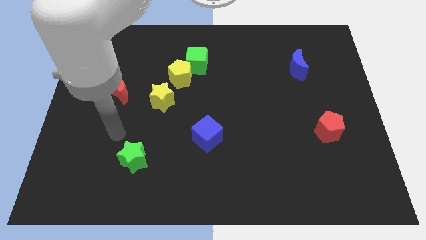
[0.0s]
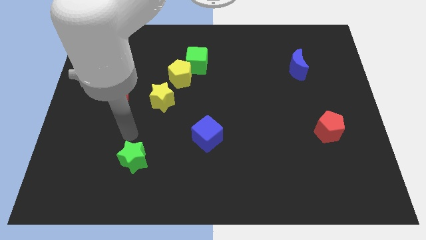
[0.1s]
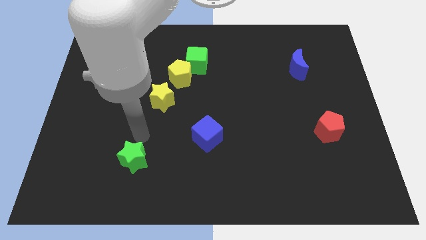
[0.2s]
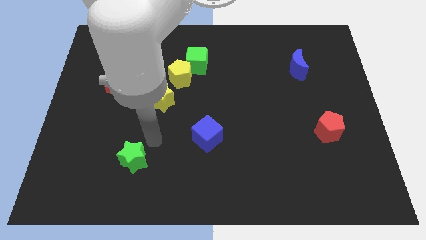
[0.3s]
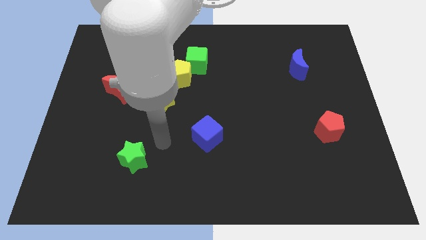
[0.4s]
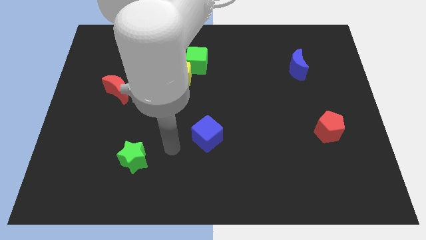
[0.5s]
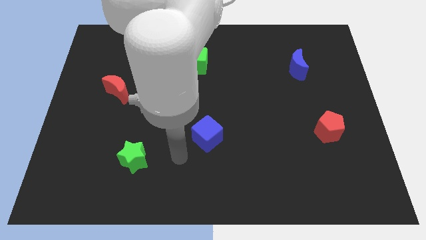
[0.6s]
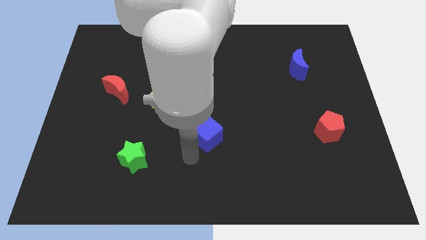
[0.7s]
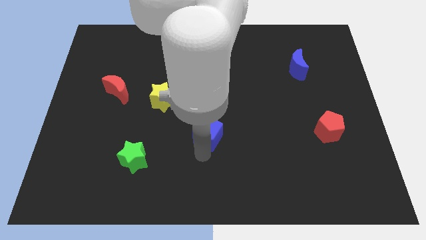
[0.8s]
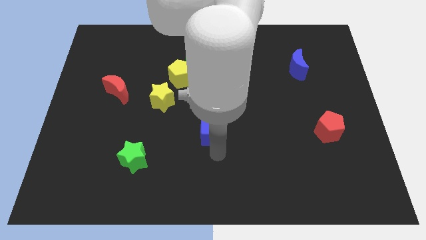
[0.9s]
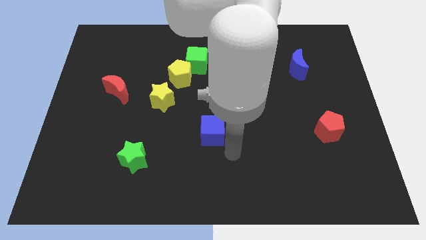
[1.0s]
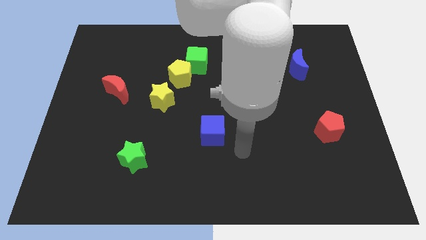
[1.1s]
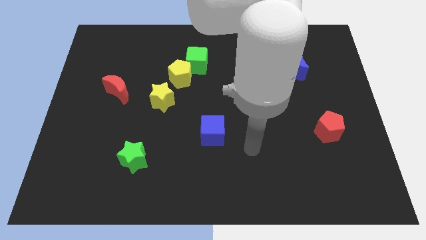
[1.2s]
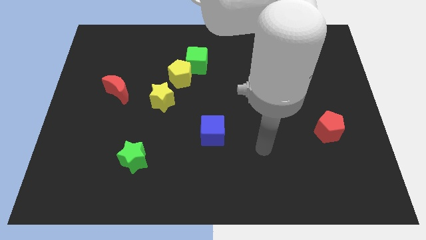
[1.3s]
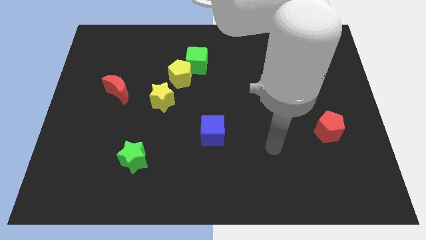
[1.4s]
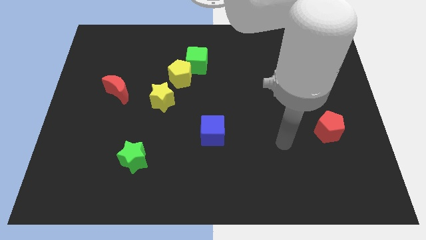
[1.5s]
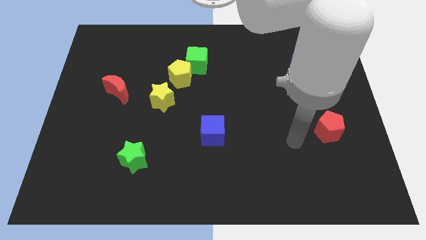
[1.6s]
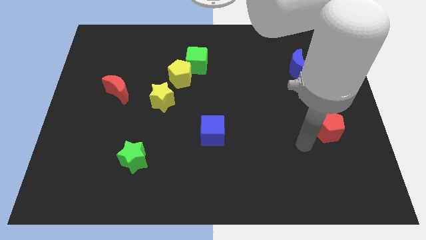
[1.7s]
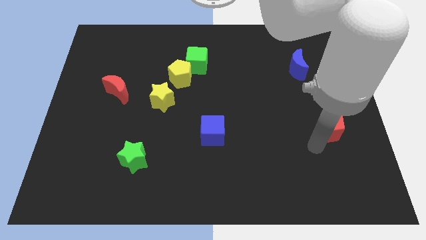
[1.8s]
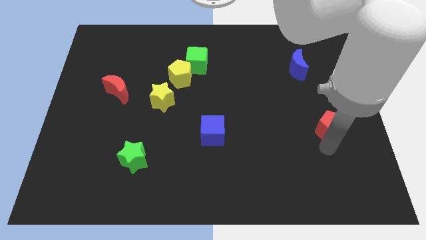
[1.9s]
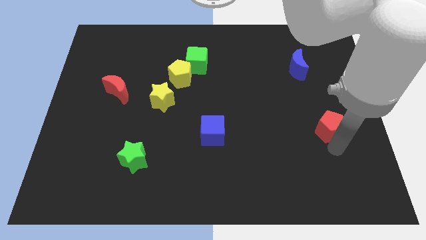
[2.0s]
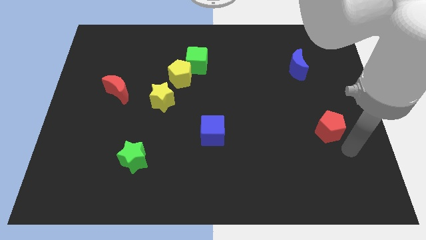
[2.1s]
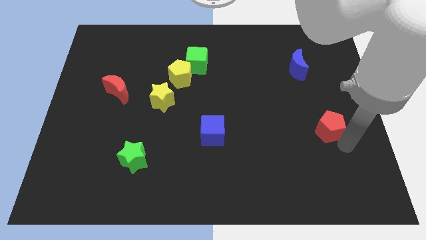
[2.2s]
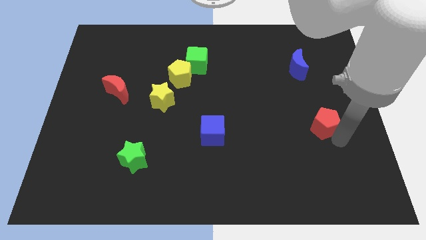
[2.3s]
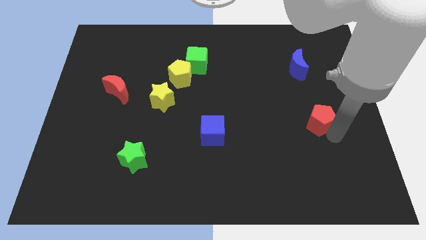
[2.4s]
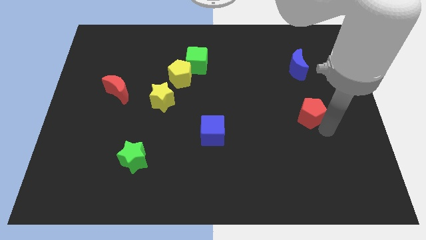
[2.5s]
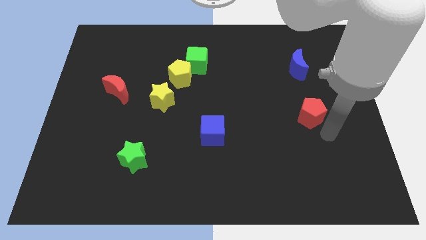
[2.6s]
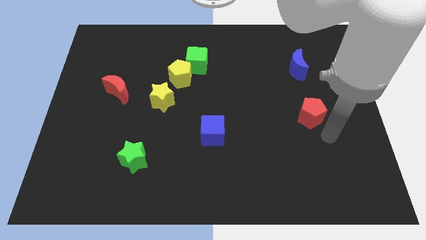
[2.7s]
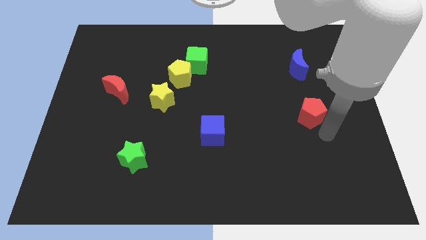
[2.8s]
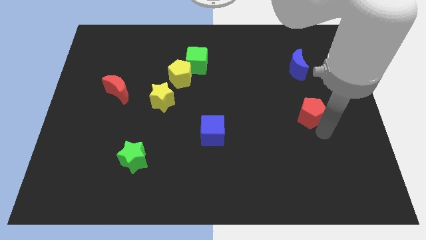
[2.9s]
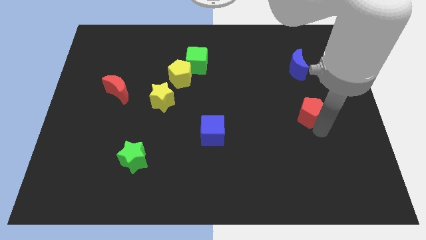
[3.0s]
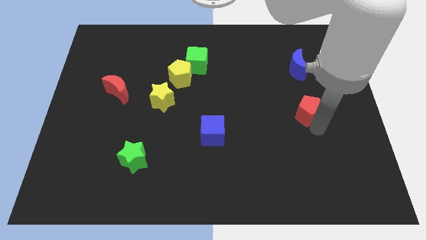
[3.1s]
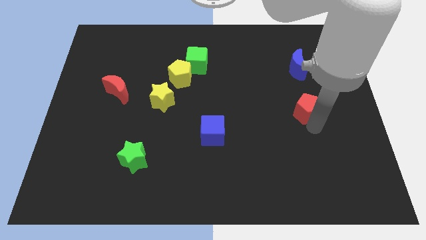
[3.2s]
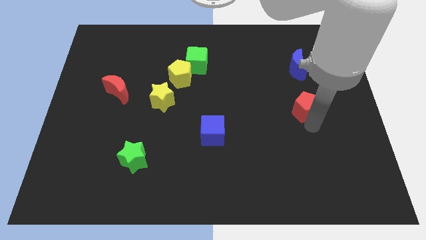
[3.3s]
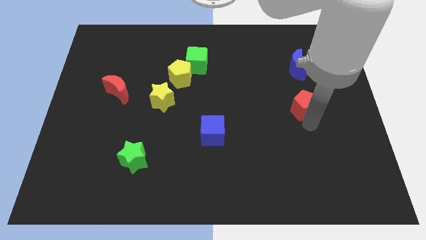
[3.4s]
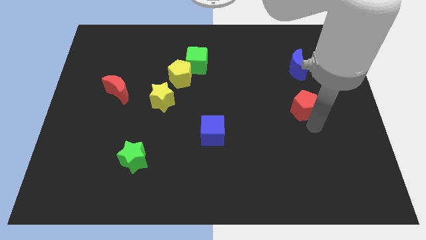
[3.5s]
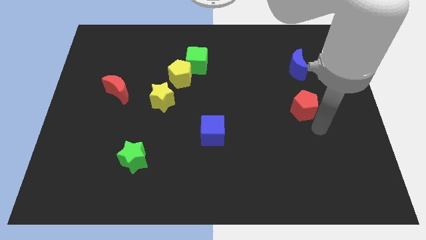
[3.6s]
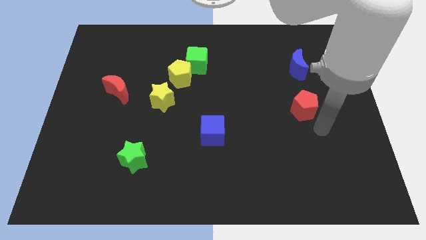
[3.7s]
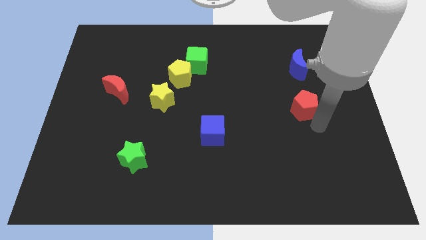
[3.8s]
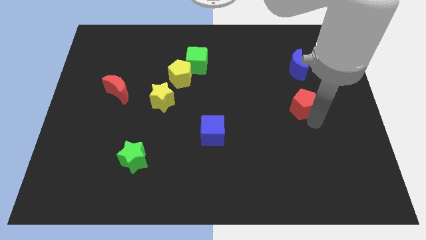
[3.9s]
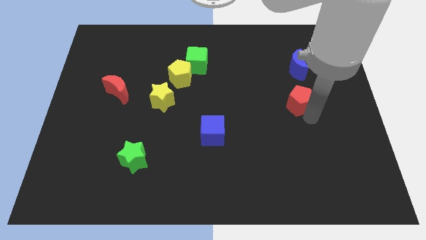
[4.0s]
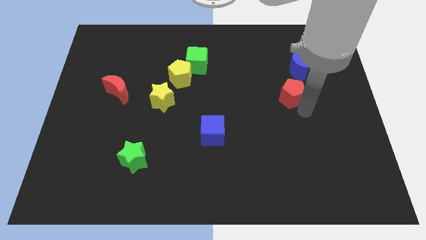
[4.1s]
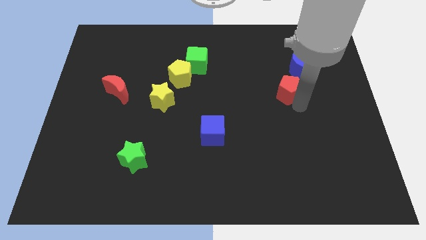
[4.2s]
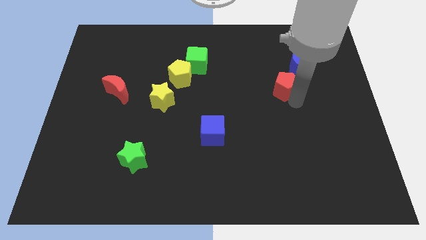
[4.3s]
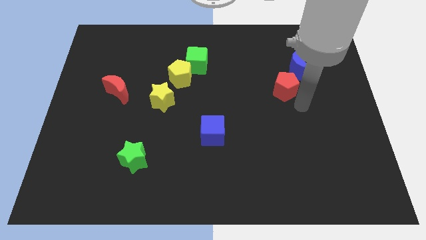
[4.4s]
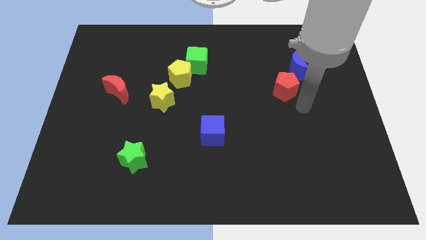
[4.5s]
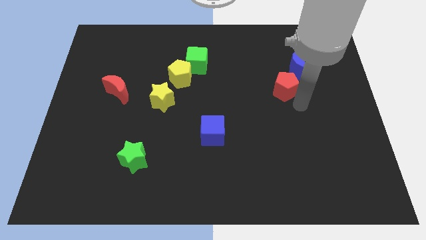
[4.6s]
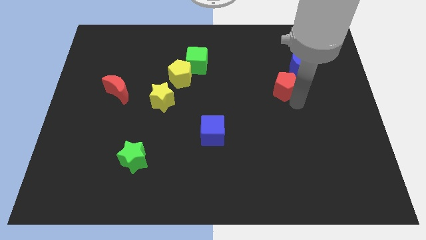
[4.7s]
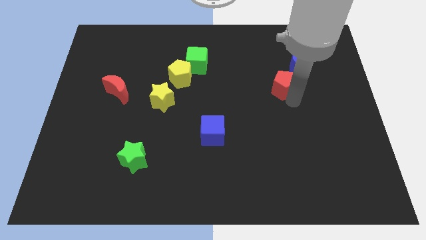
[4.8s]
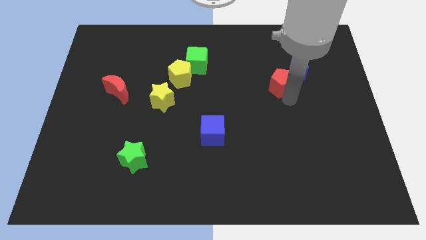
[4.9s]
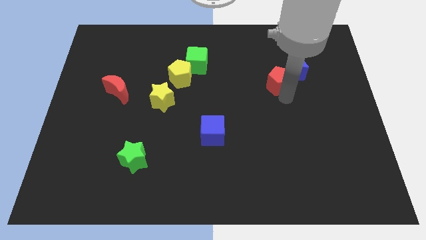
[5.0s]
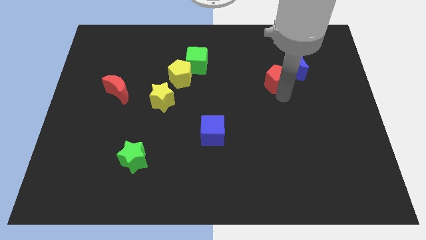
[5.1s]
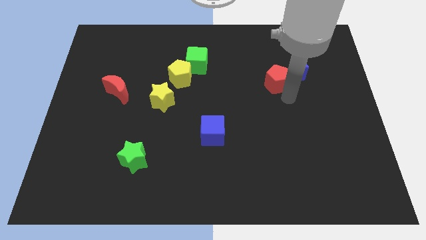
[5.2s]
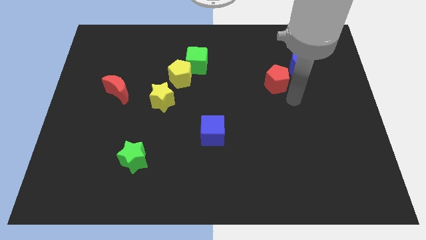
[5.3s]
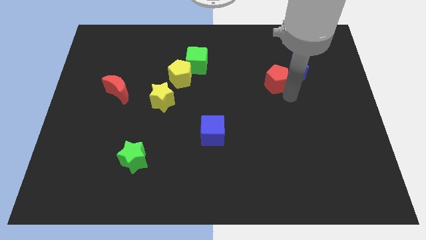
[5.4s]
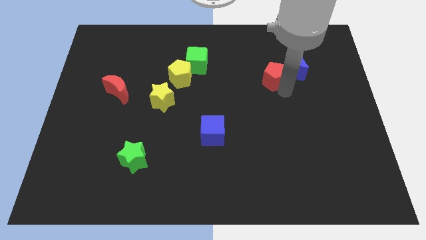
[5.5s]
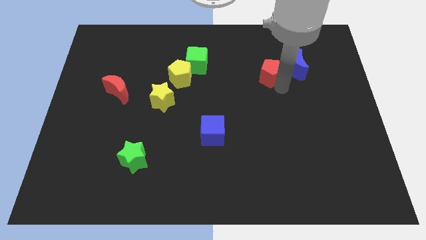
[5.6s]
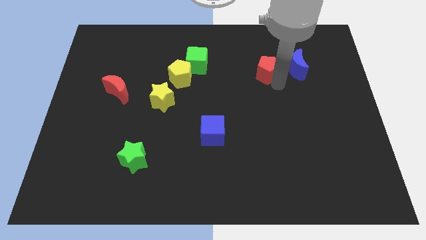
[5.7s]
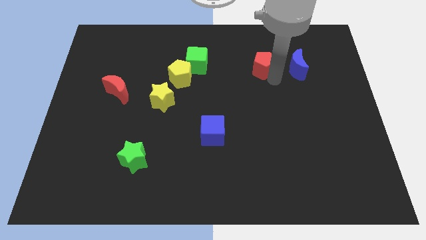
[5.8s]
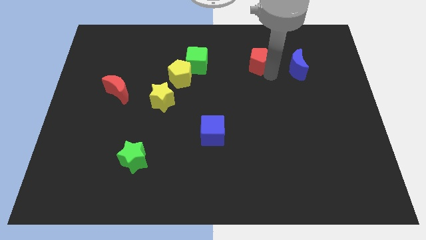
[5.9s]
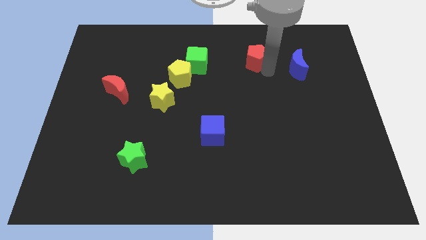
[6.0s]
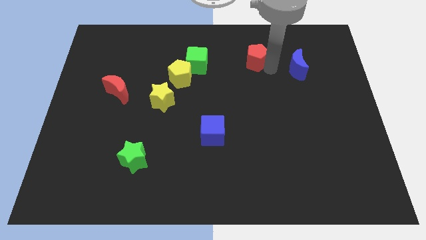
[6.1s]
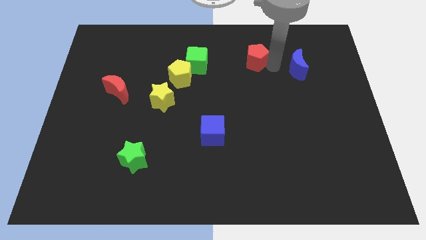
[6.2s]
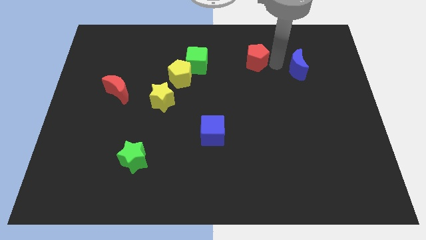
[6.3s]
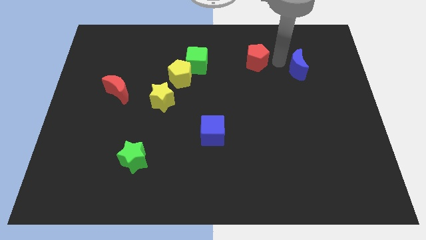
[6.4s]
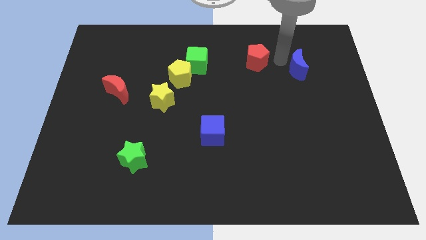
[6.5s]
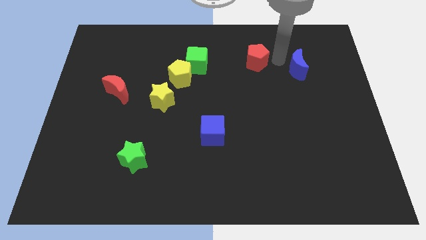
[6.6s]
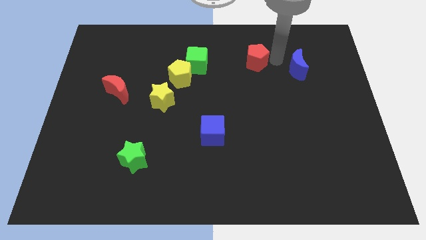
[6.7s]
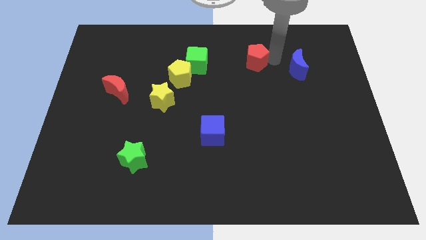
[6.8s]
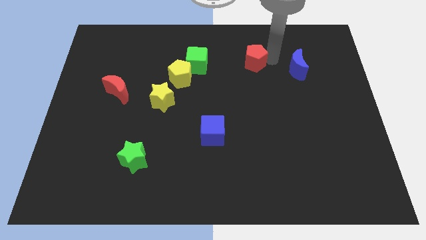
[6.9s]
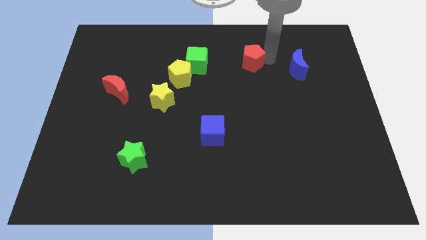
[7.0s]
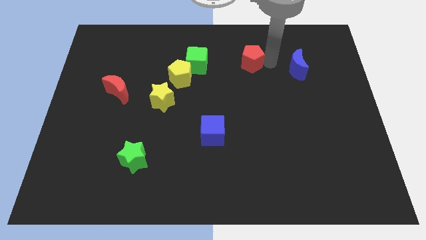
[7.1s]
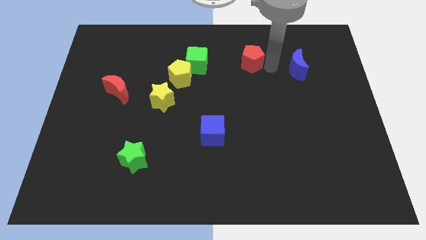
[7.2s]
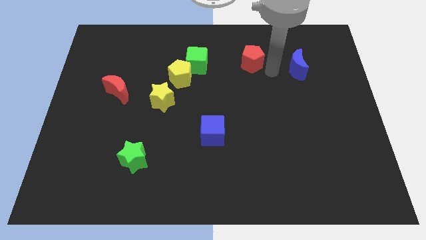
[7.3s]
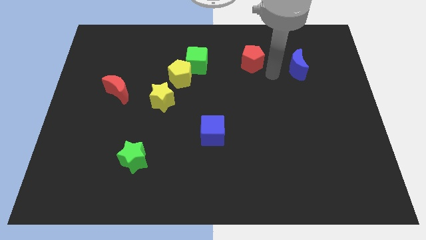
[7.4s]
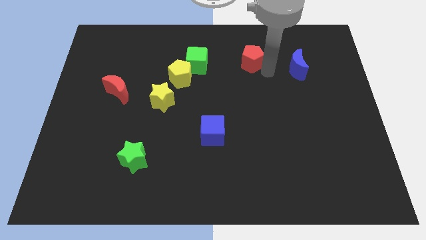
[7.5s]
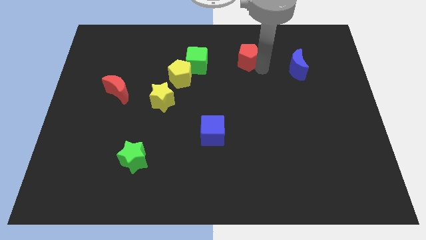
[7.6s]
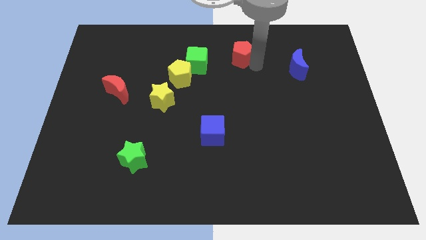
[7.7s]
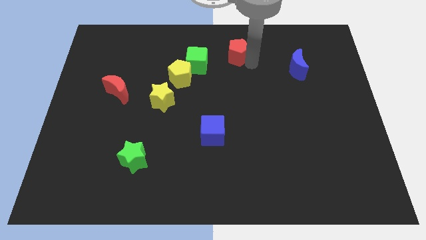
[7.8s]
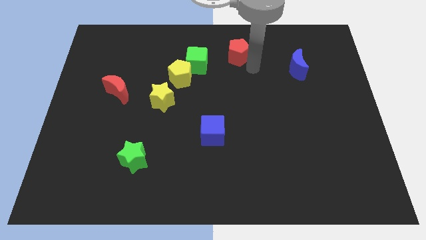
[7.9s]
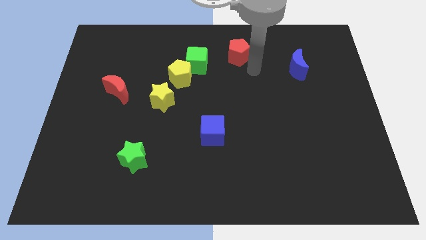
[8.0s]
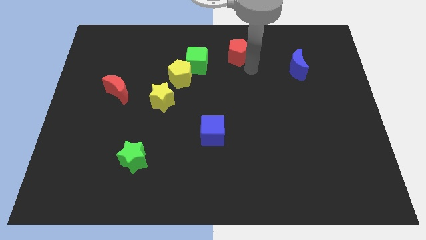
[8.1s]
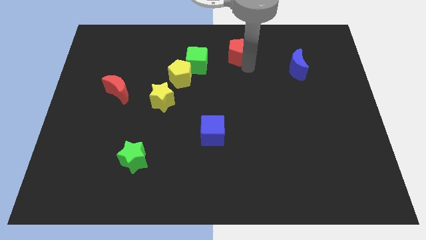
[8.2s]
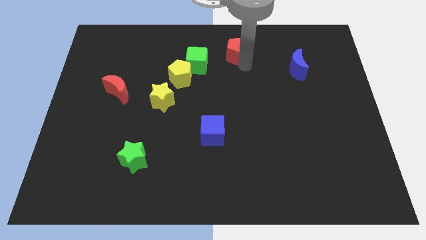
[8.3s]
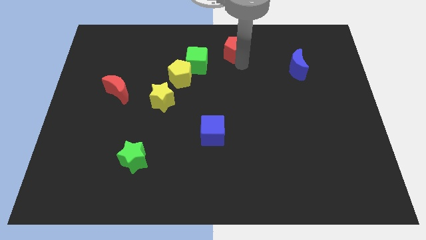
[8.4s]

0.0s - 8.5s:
push the red pentagon to the top side
